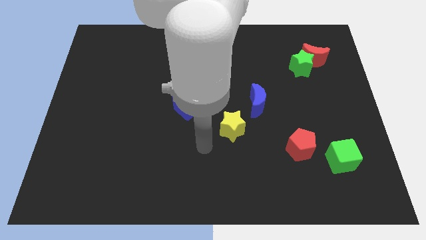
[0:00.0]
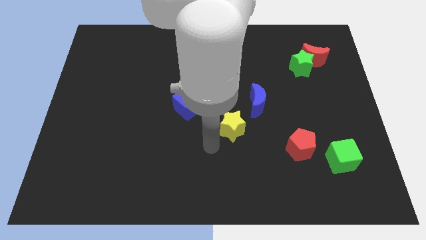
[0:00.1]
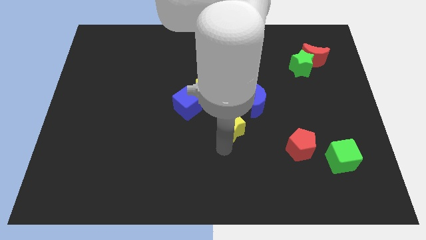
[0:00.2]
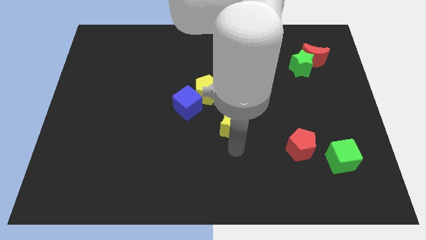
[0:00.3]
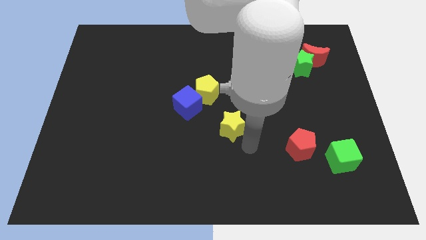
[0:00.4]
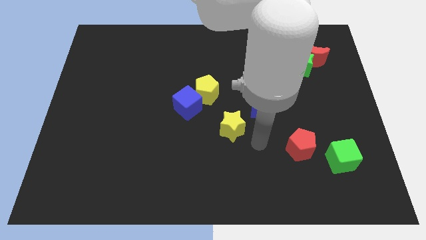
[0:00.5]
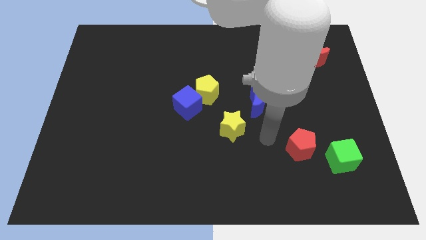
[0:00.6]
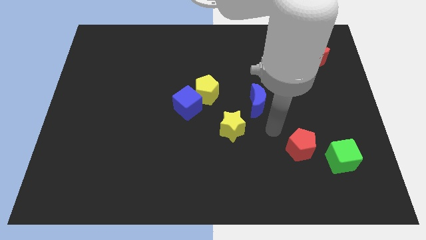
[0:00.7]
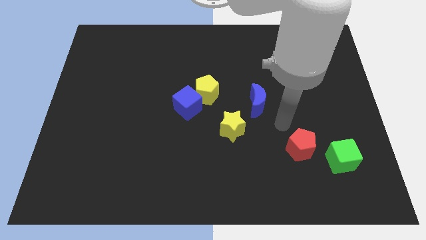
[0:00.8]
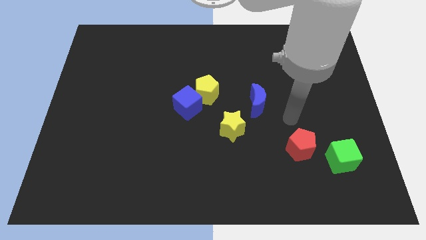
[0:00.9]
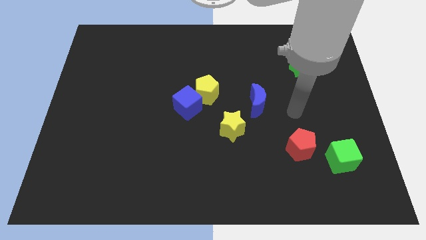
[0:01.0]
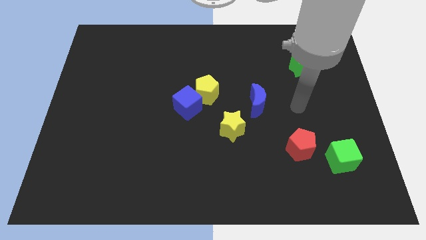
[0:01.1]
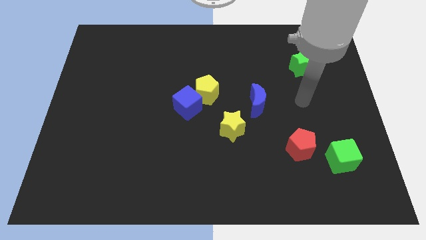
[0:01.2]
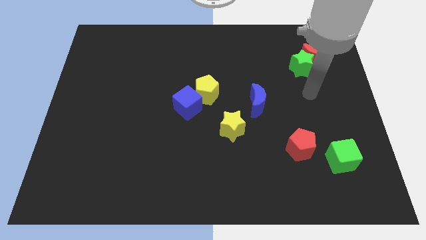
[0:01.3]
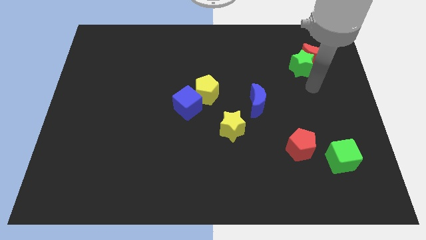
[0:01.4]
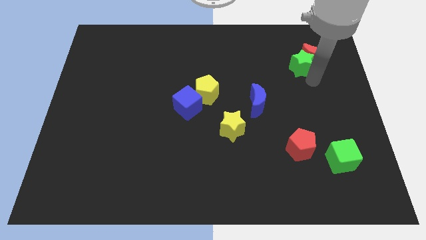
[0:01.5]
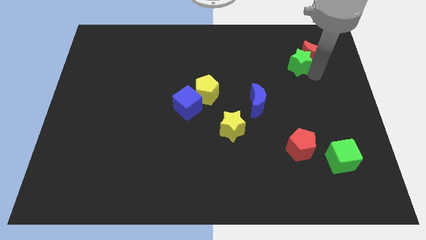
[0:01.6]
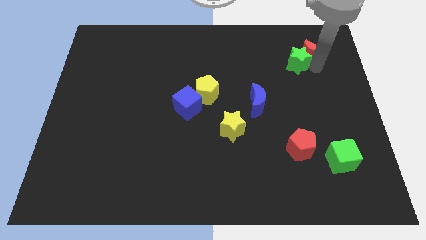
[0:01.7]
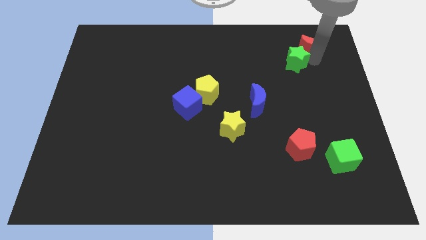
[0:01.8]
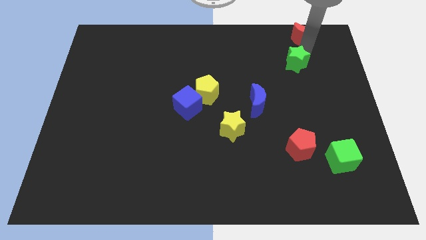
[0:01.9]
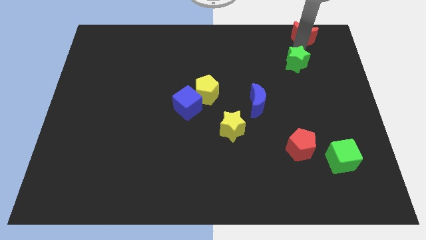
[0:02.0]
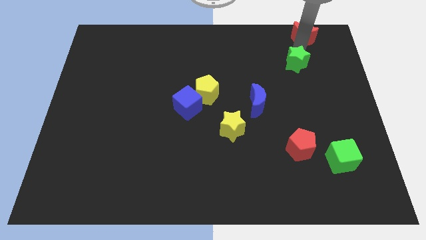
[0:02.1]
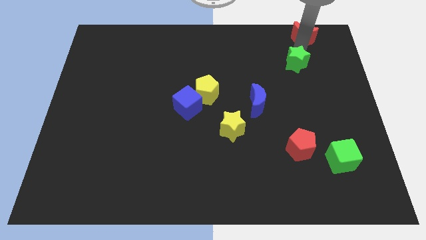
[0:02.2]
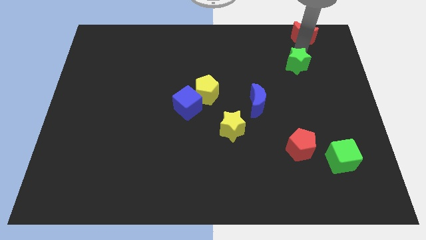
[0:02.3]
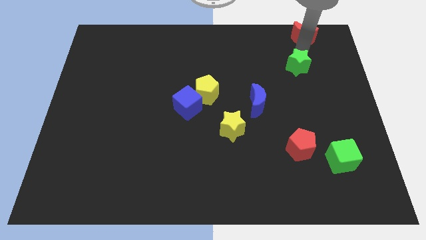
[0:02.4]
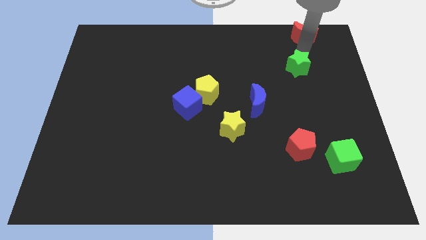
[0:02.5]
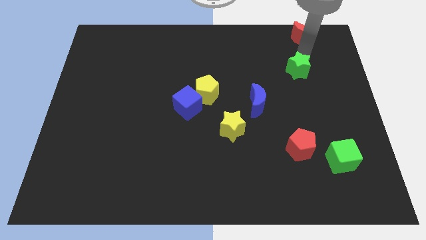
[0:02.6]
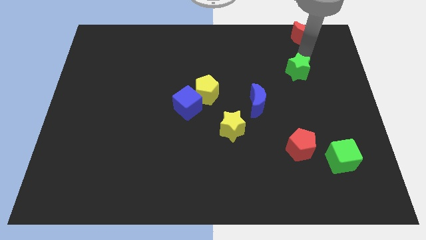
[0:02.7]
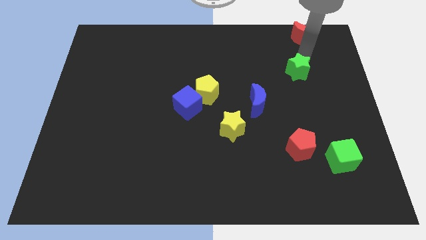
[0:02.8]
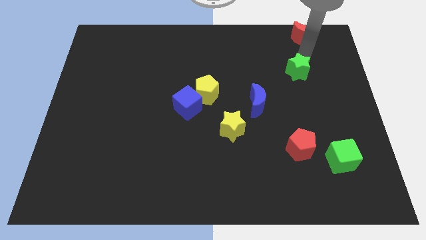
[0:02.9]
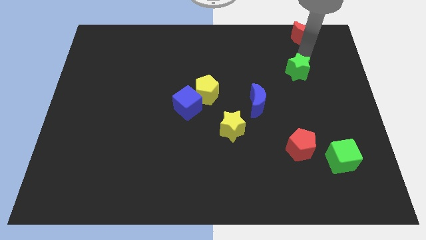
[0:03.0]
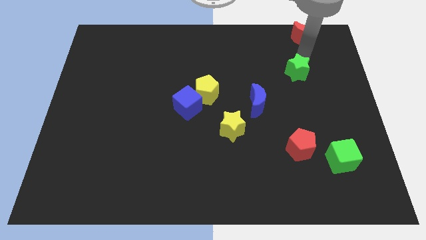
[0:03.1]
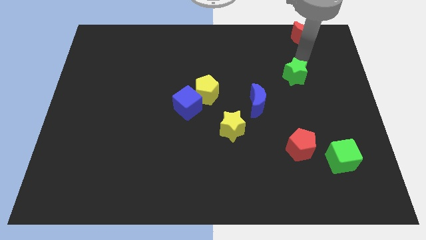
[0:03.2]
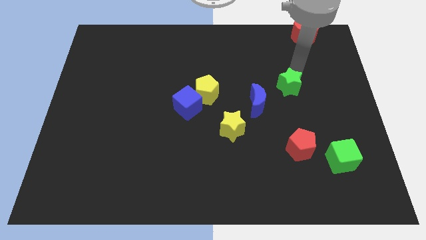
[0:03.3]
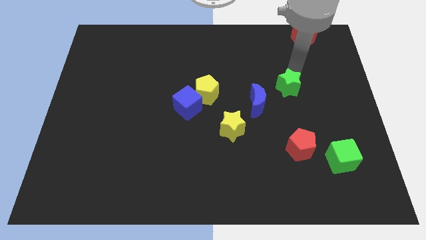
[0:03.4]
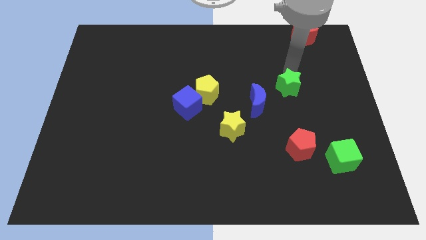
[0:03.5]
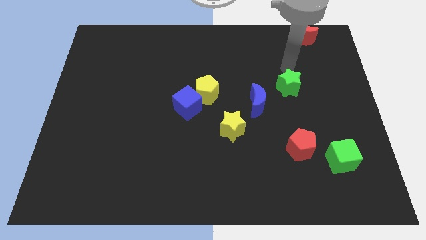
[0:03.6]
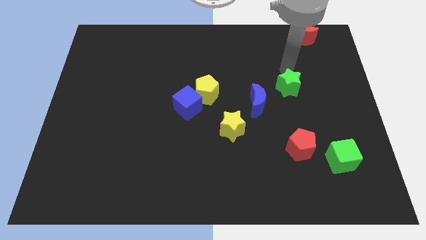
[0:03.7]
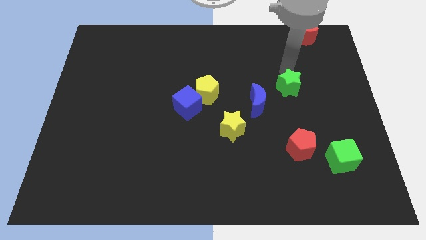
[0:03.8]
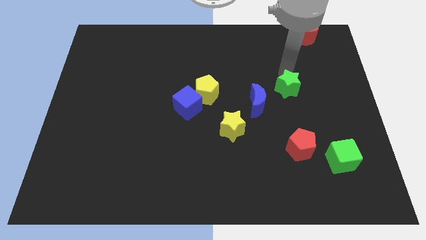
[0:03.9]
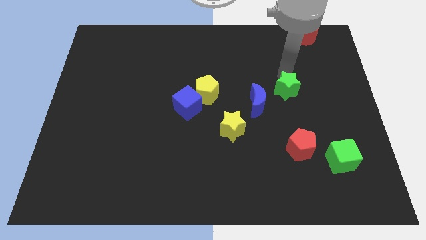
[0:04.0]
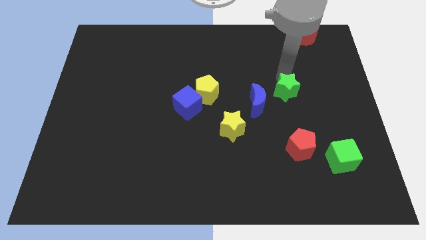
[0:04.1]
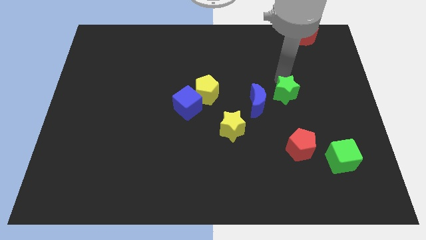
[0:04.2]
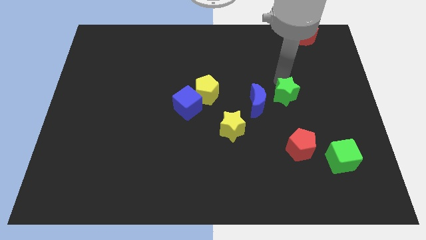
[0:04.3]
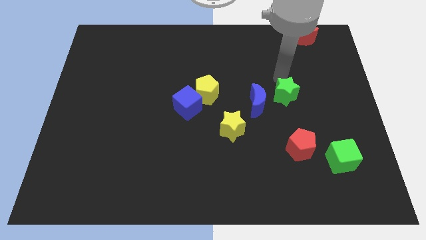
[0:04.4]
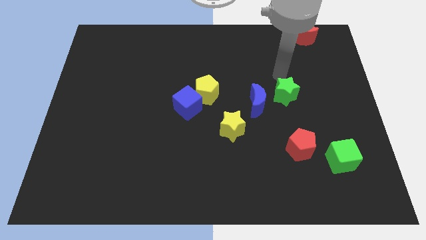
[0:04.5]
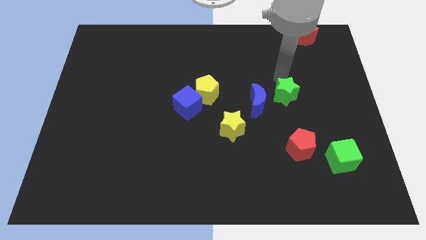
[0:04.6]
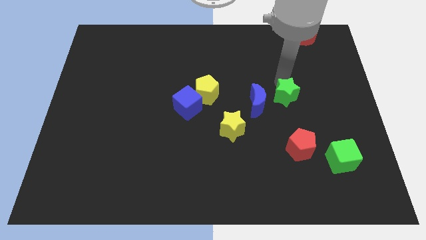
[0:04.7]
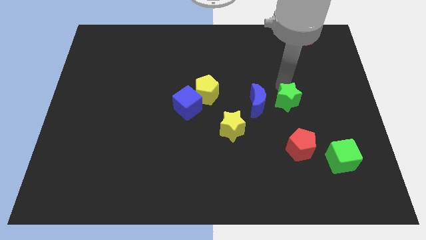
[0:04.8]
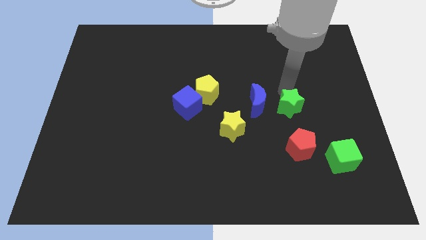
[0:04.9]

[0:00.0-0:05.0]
put the green star diagonally down and to the right of the blue moon

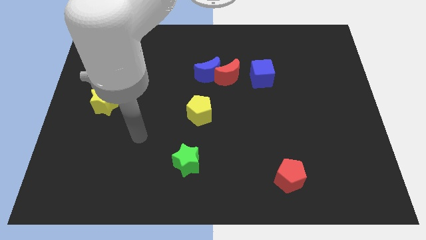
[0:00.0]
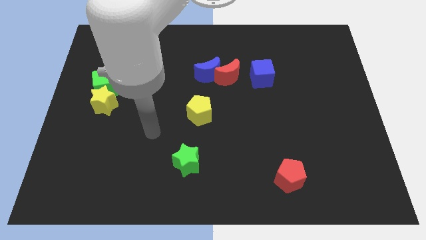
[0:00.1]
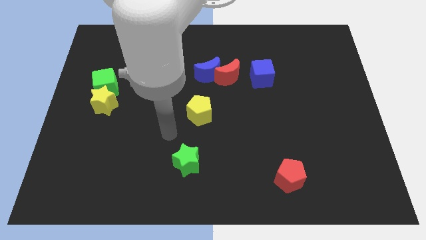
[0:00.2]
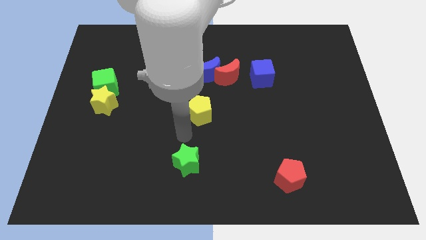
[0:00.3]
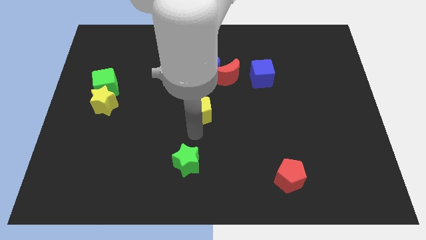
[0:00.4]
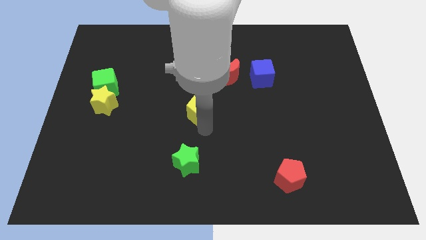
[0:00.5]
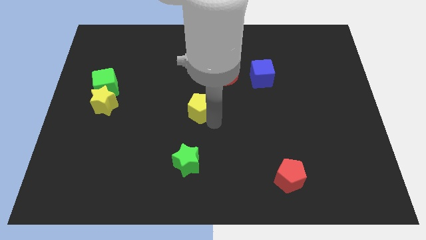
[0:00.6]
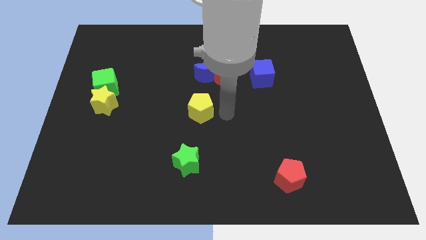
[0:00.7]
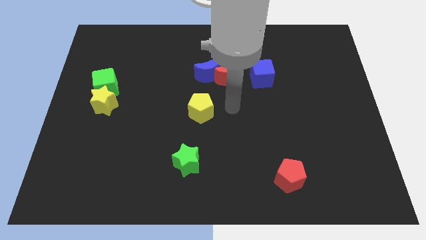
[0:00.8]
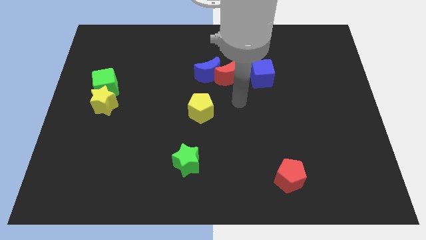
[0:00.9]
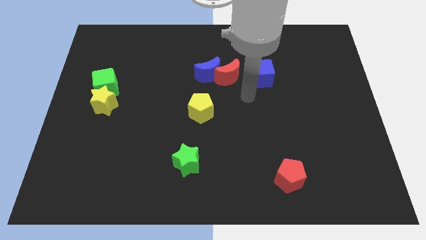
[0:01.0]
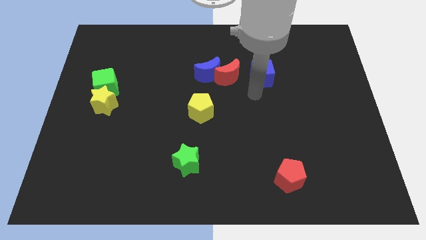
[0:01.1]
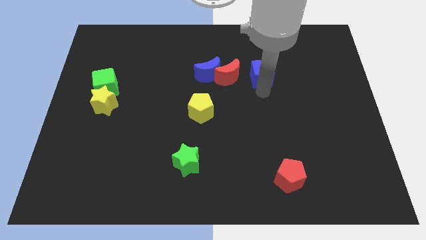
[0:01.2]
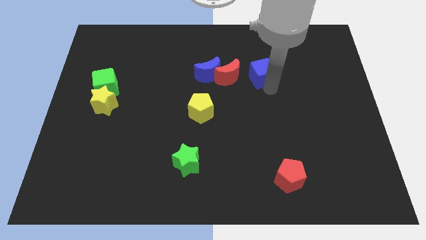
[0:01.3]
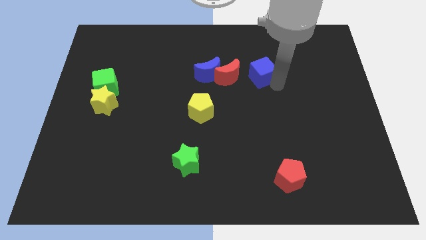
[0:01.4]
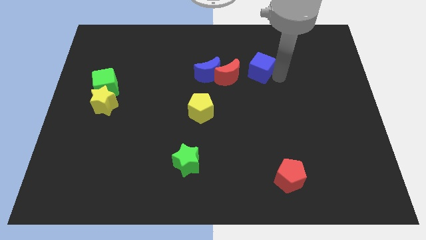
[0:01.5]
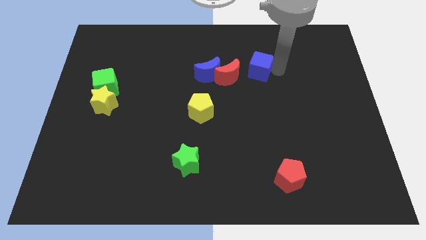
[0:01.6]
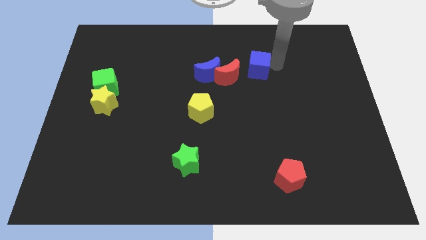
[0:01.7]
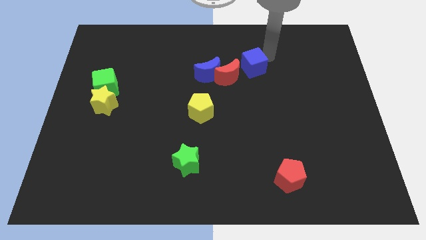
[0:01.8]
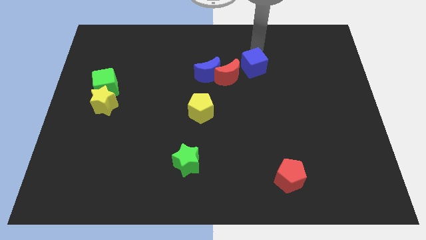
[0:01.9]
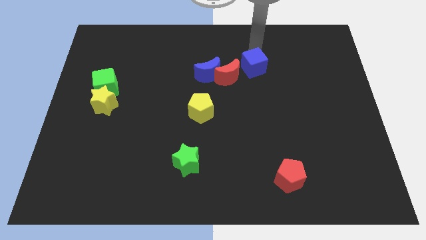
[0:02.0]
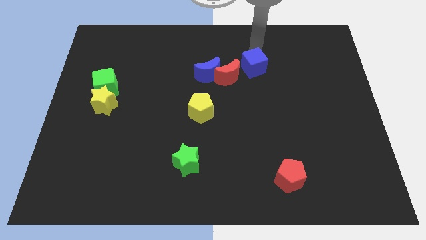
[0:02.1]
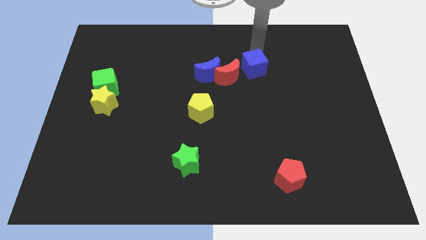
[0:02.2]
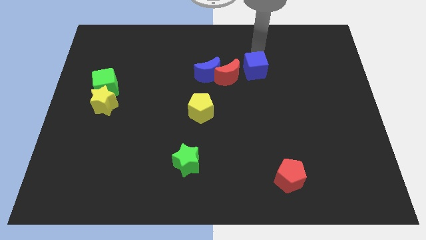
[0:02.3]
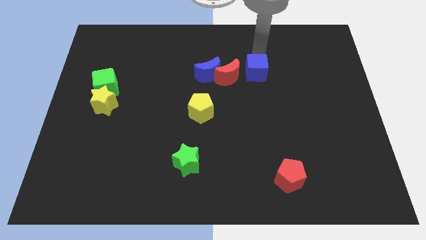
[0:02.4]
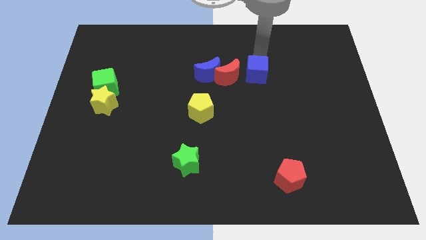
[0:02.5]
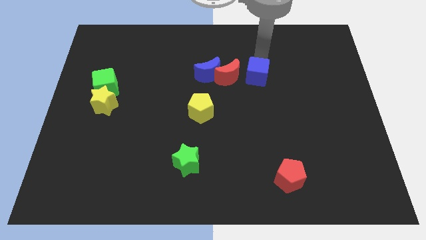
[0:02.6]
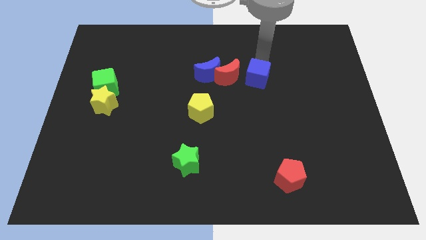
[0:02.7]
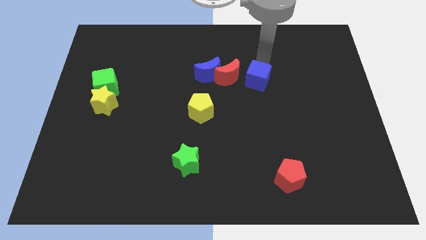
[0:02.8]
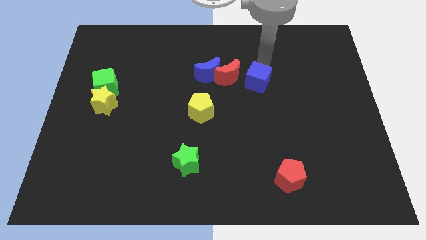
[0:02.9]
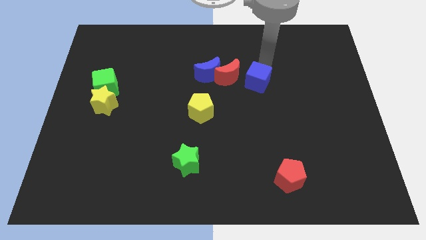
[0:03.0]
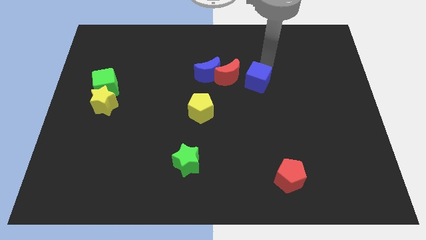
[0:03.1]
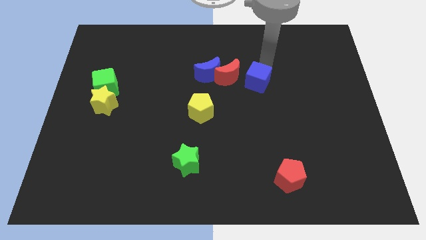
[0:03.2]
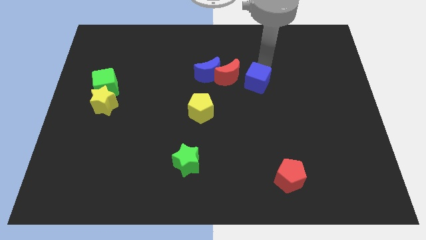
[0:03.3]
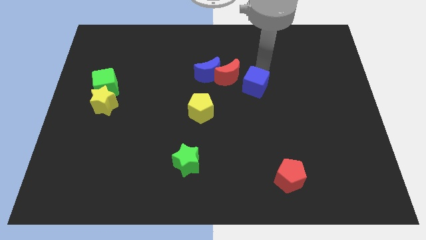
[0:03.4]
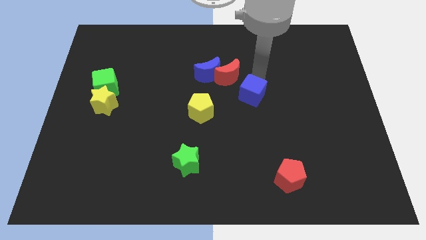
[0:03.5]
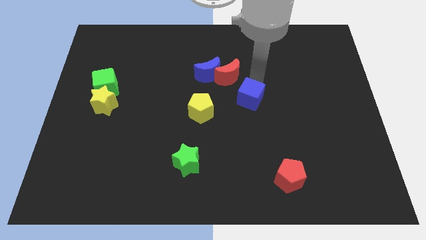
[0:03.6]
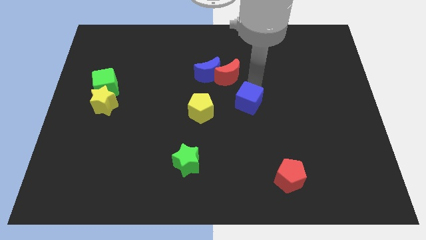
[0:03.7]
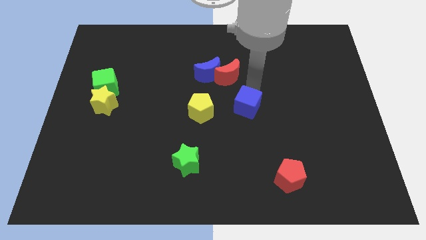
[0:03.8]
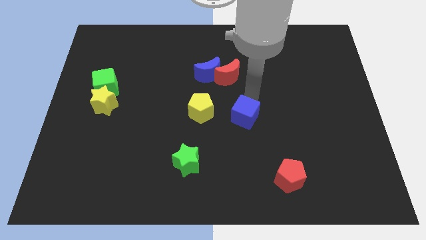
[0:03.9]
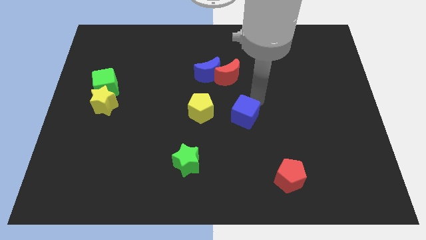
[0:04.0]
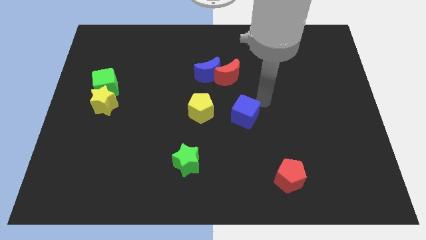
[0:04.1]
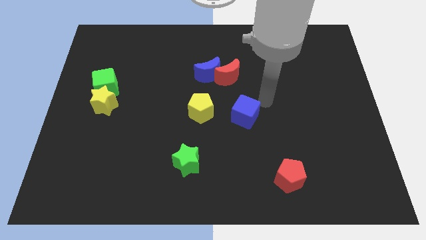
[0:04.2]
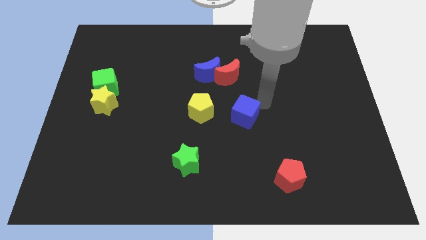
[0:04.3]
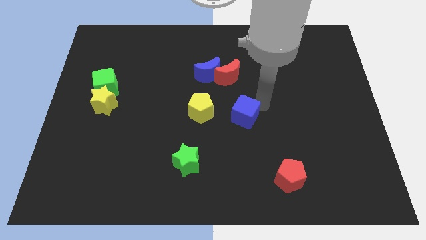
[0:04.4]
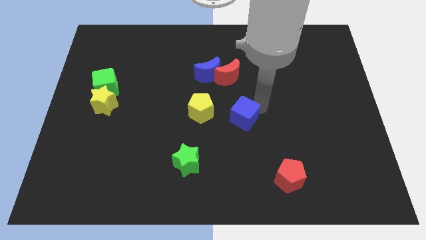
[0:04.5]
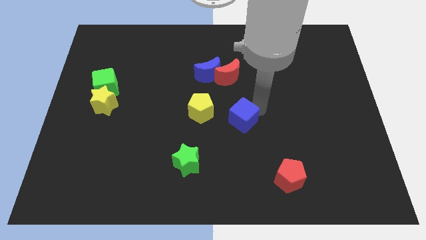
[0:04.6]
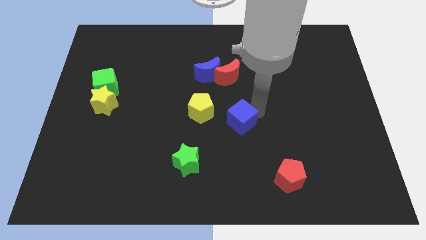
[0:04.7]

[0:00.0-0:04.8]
slide the blue cube diagonally down and to the right of the yellow pentagon
